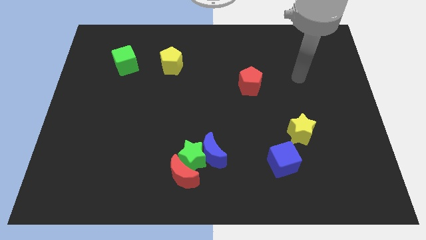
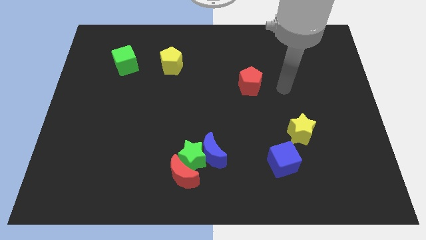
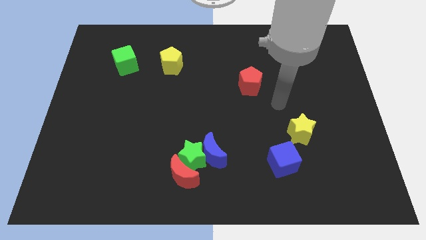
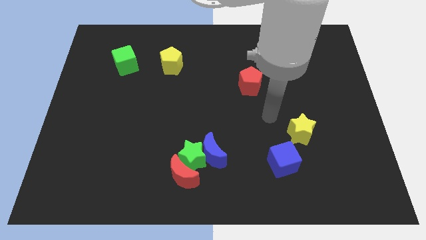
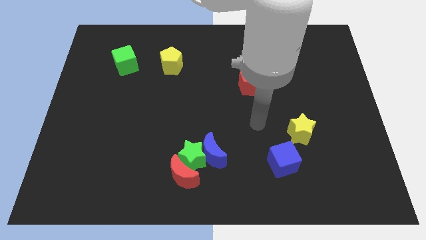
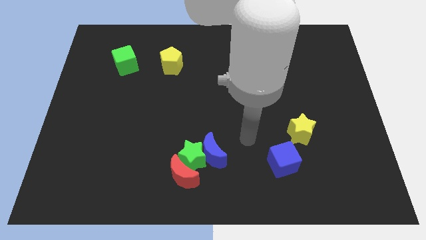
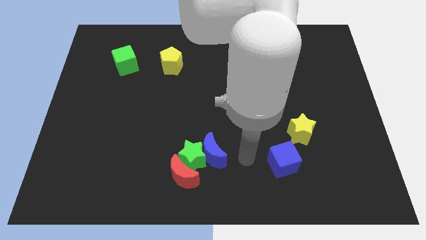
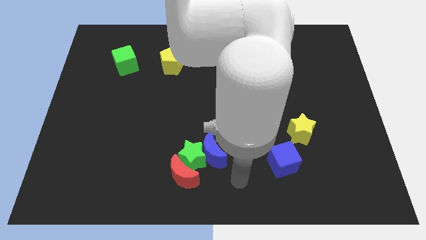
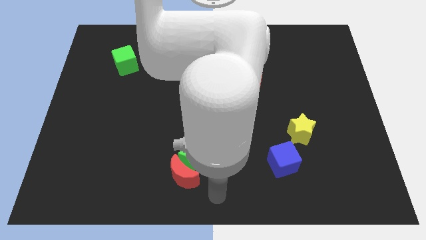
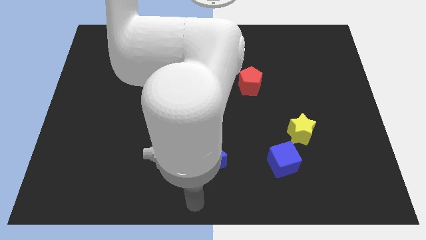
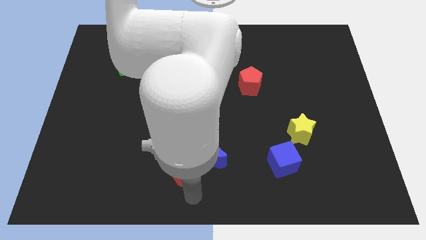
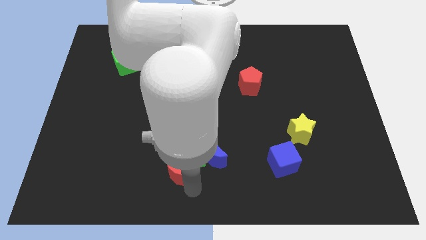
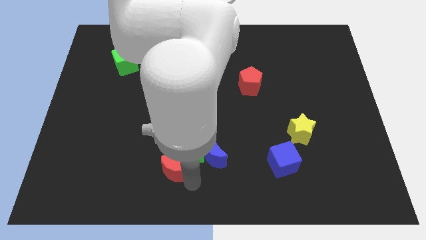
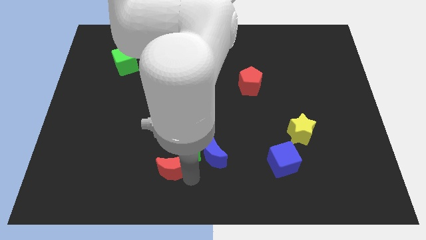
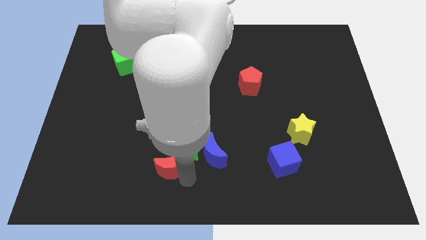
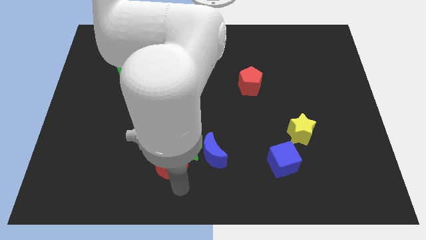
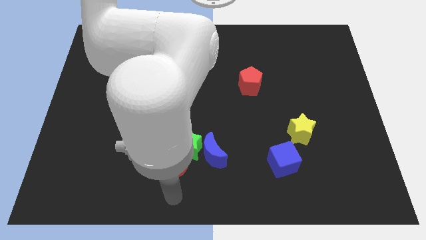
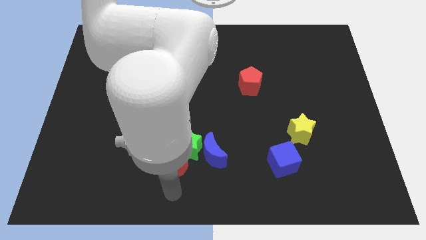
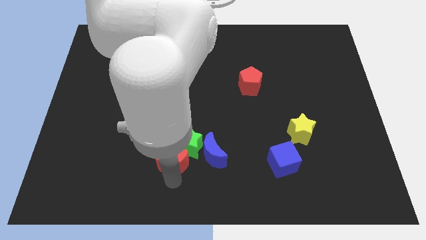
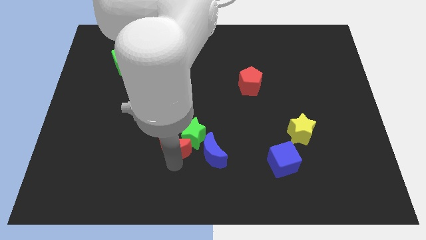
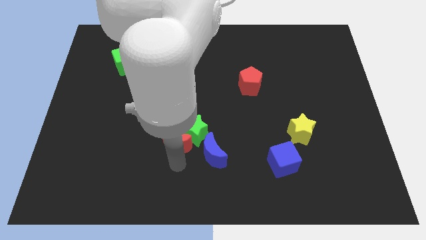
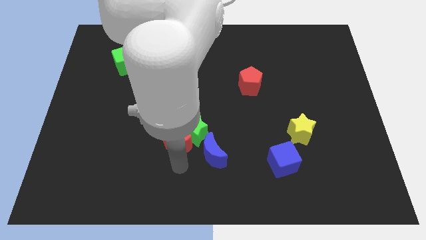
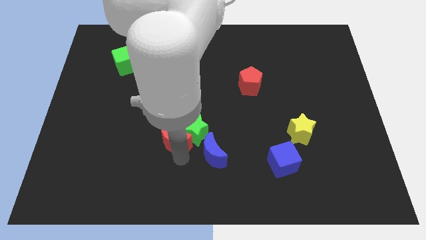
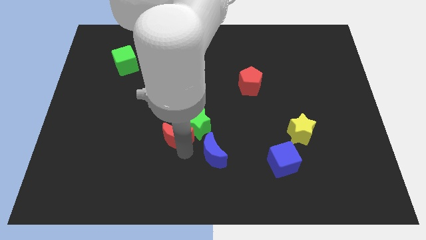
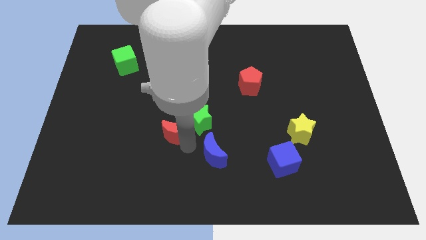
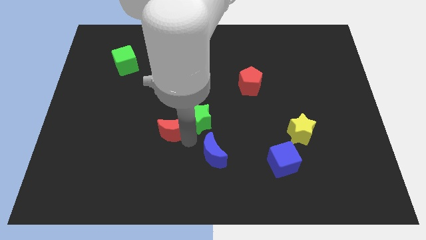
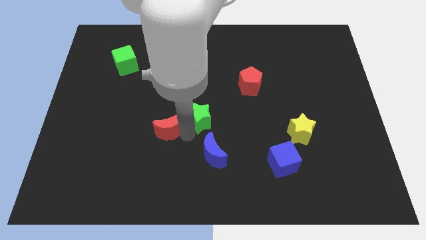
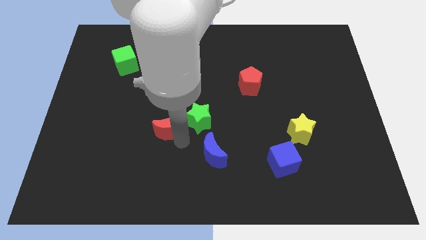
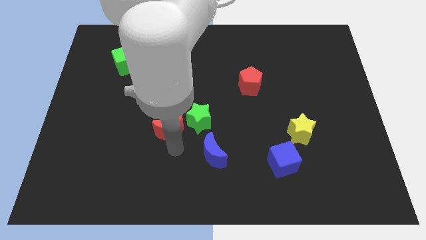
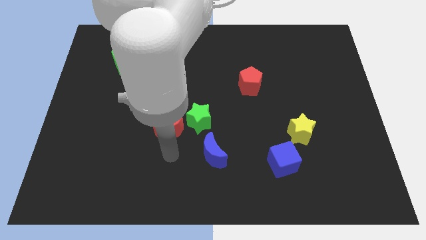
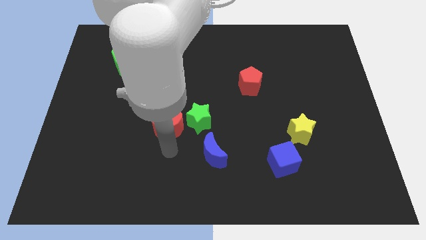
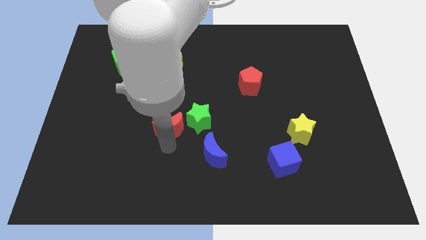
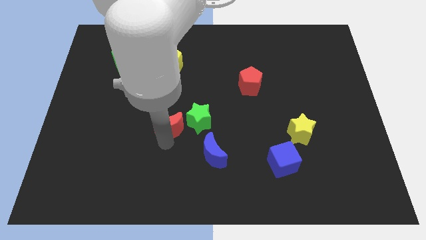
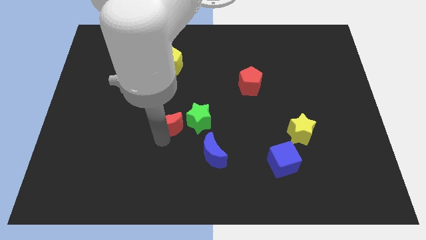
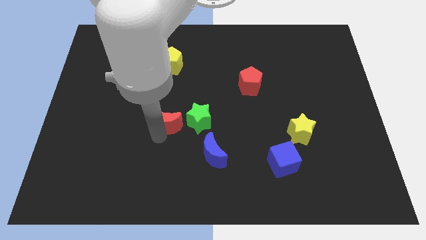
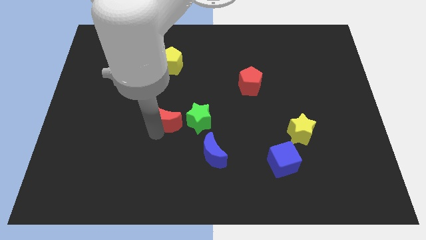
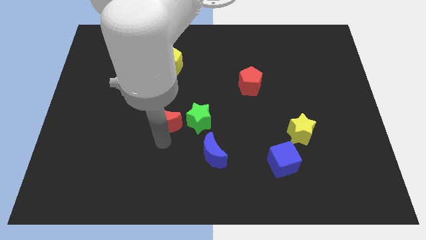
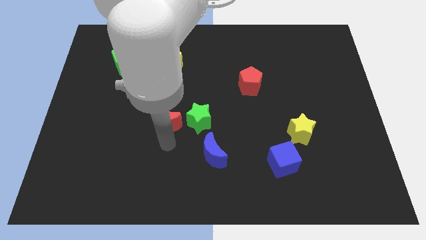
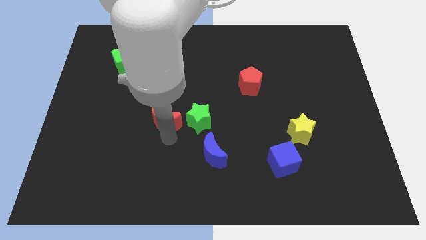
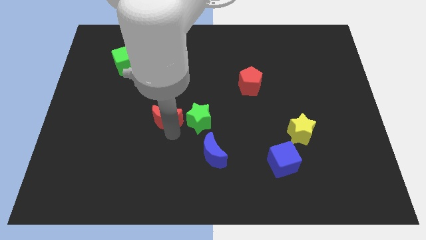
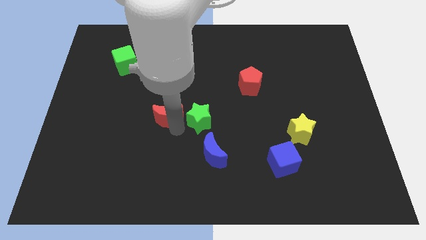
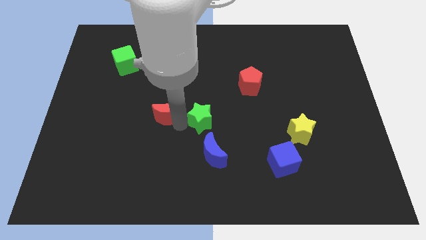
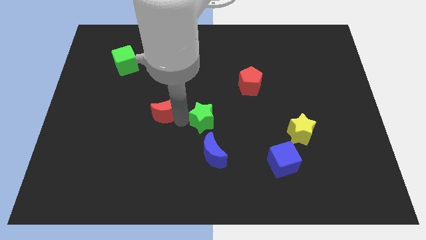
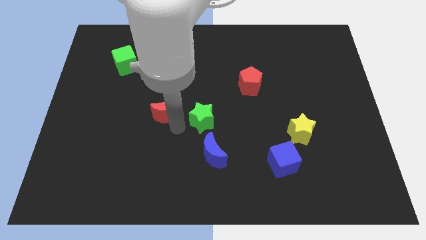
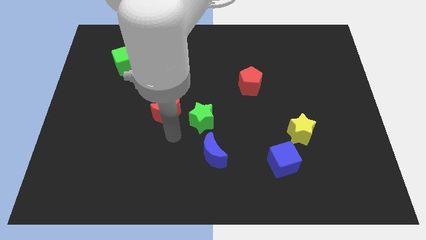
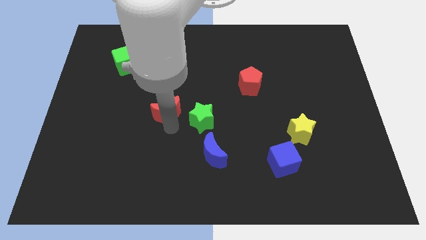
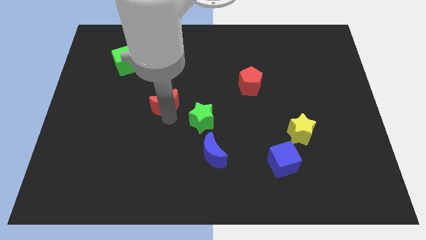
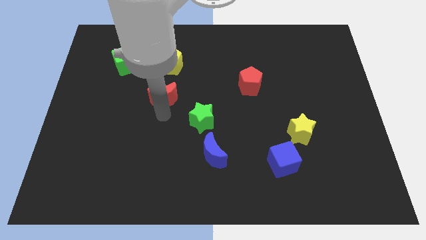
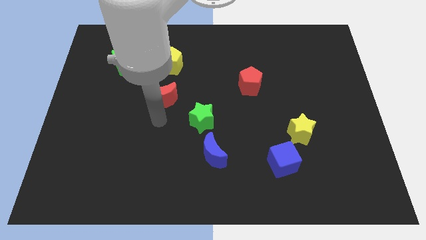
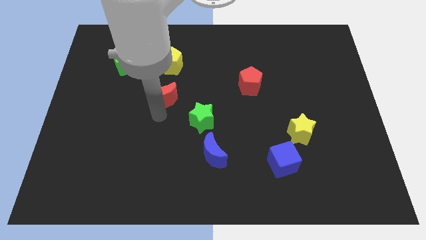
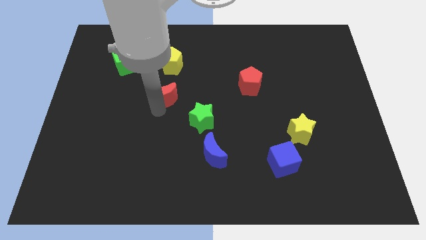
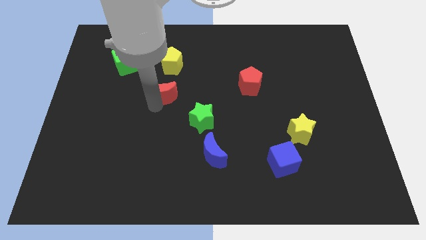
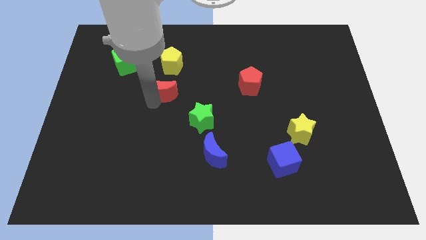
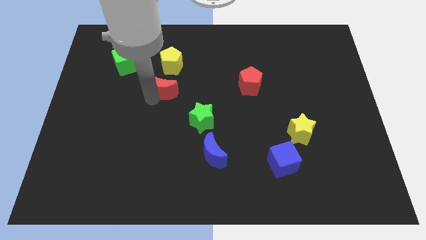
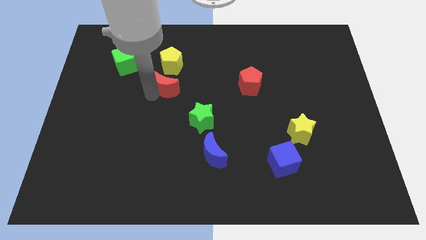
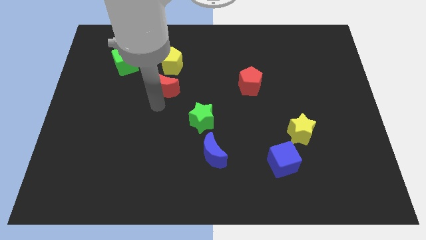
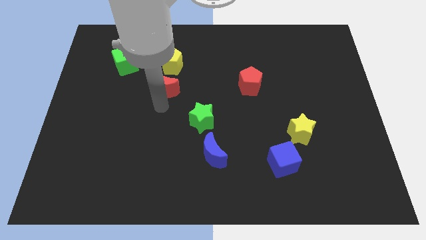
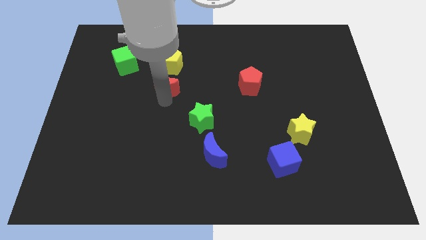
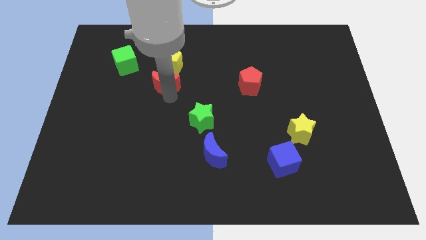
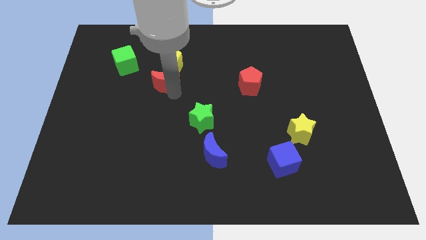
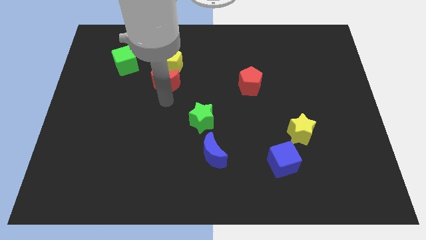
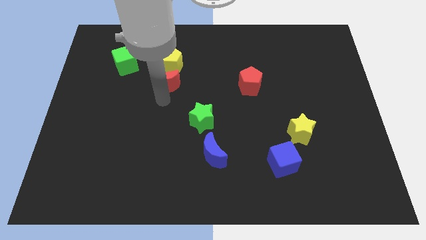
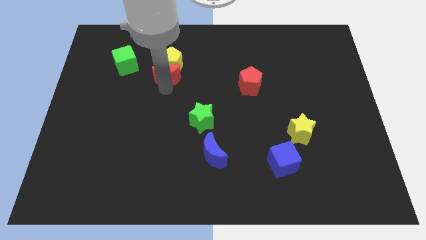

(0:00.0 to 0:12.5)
slide the red moon to the yellow pentagon

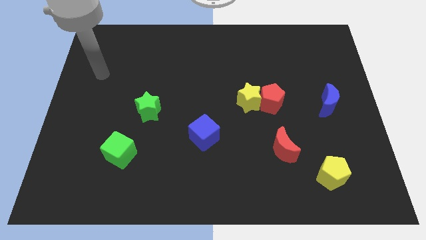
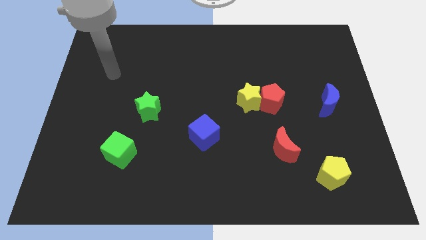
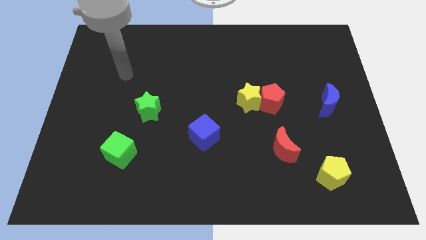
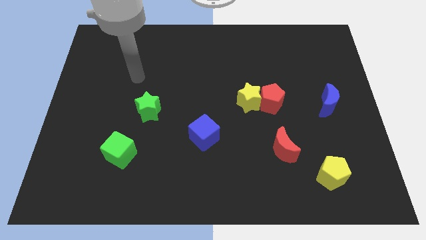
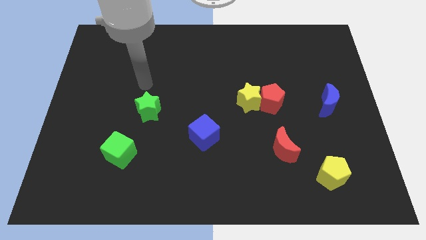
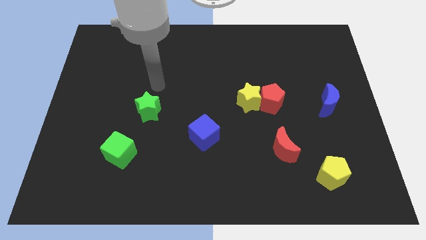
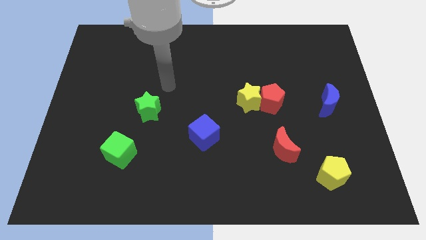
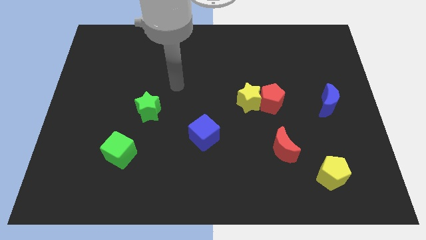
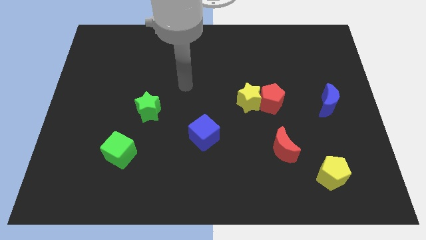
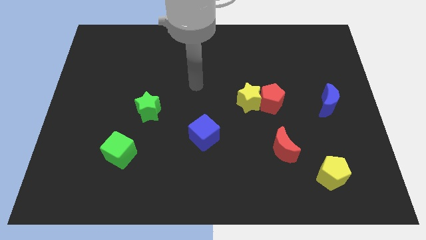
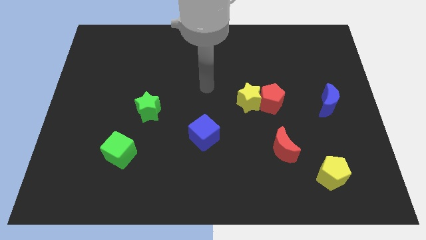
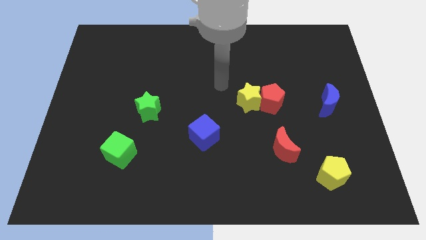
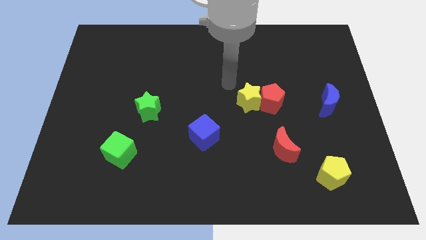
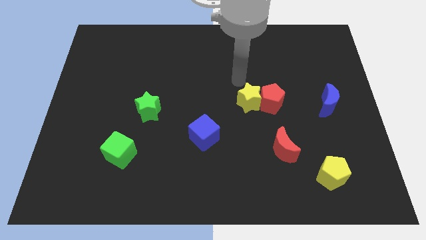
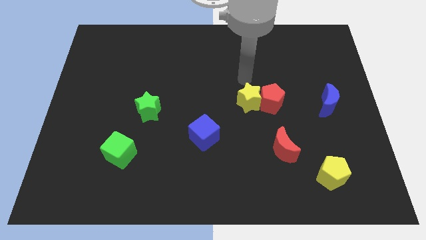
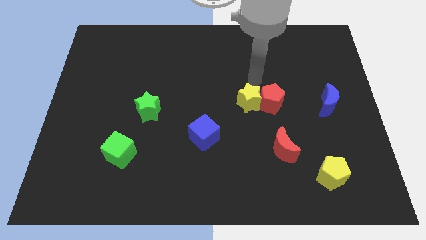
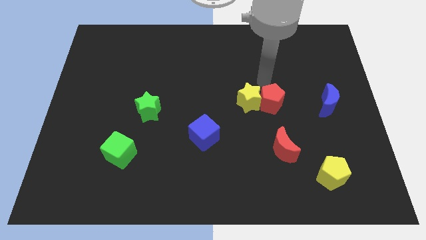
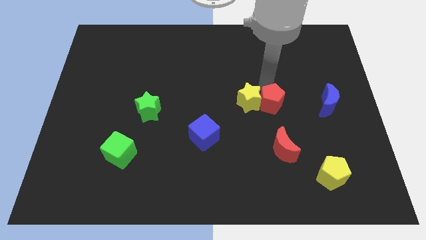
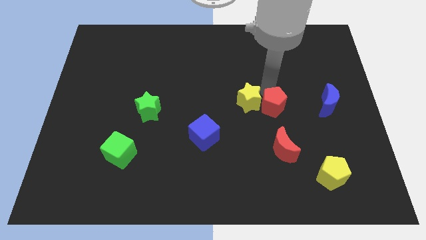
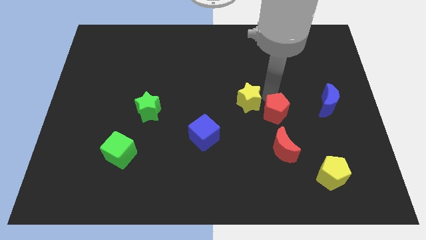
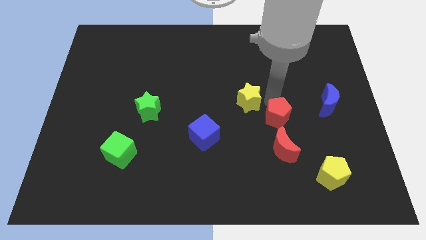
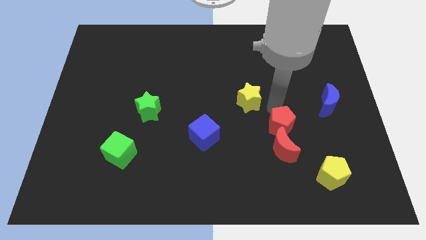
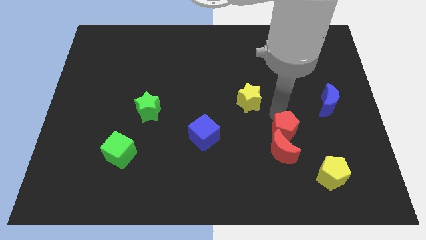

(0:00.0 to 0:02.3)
put the red pentagon next to the red moon
